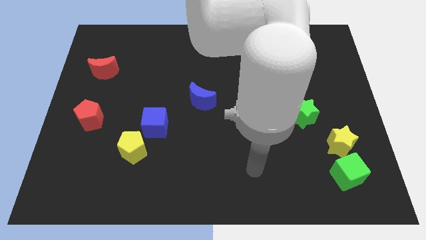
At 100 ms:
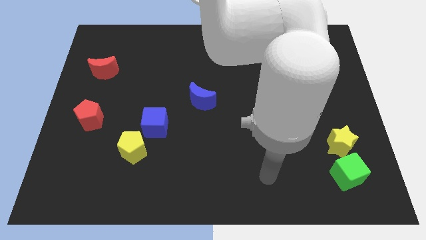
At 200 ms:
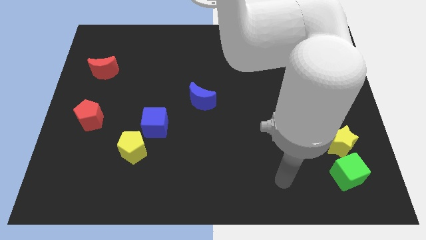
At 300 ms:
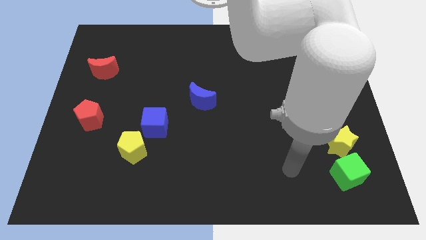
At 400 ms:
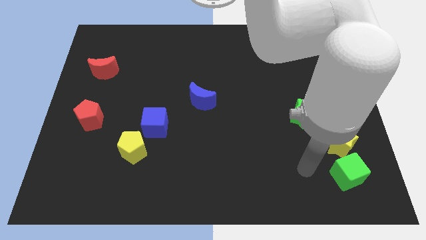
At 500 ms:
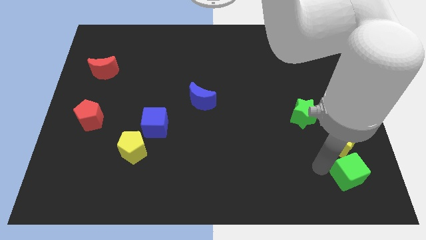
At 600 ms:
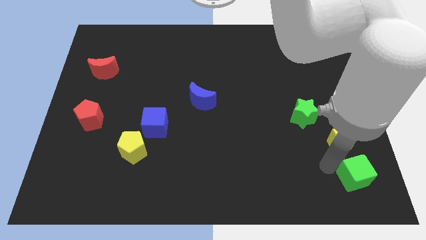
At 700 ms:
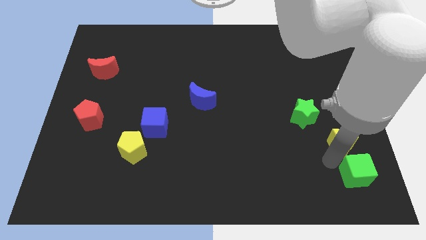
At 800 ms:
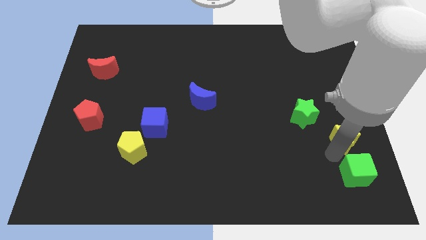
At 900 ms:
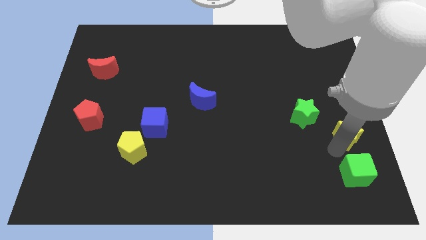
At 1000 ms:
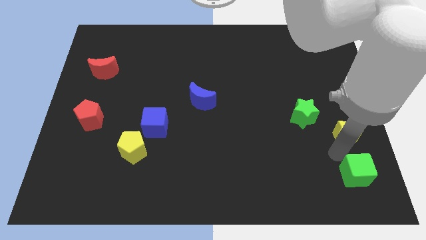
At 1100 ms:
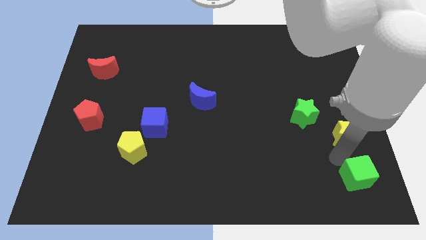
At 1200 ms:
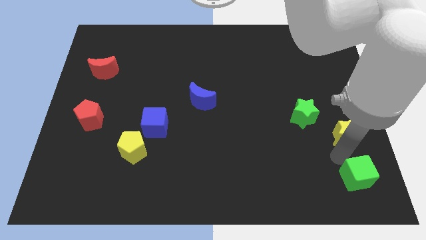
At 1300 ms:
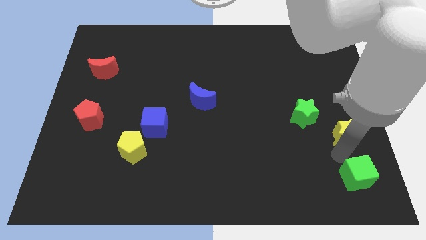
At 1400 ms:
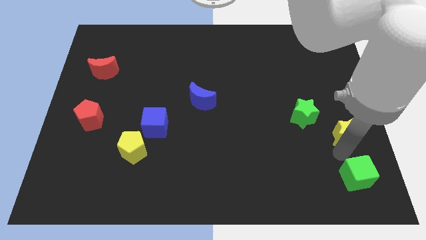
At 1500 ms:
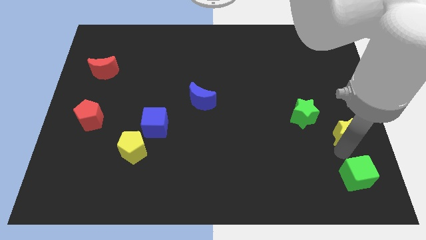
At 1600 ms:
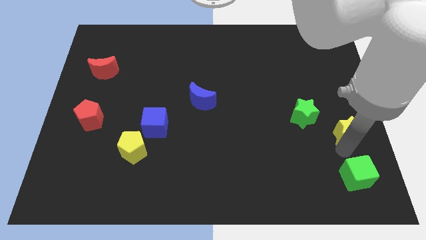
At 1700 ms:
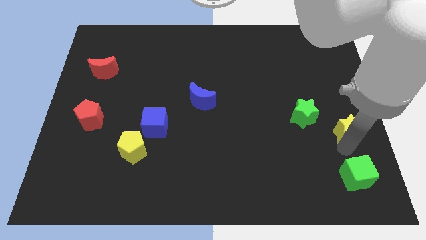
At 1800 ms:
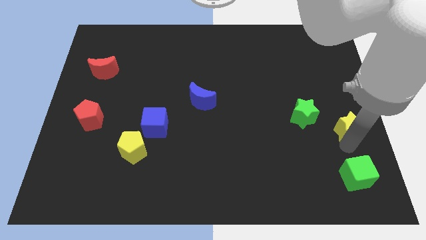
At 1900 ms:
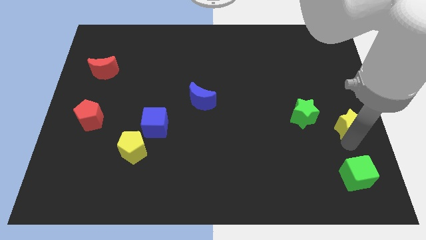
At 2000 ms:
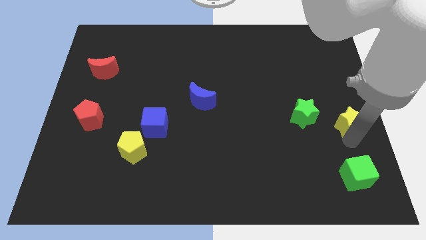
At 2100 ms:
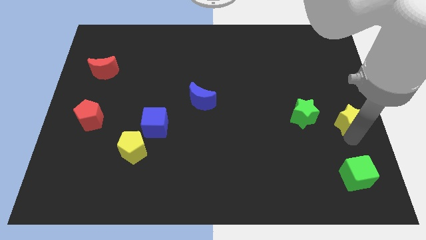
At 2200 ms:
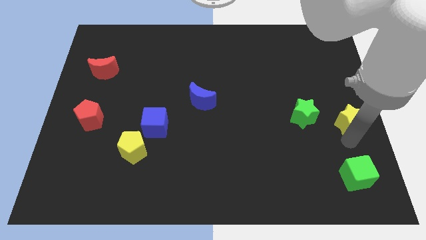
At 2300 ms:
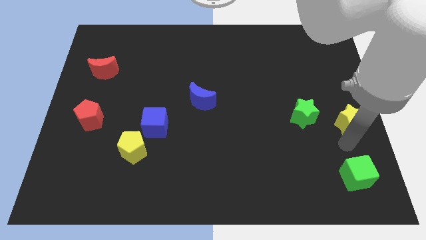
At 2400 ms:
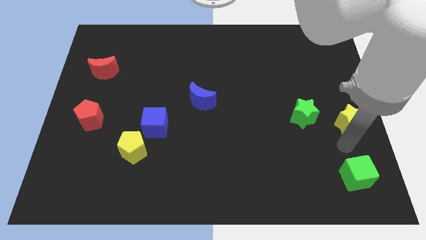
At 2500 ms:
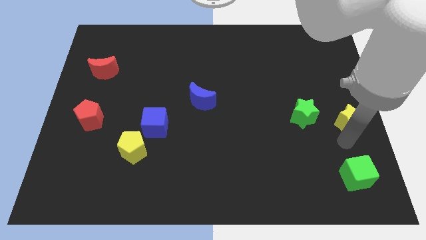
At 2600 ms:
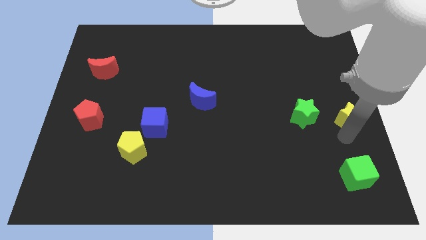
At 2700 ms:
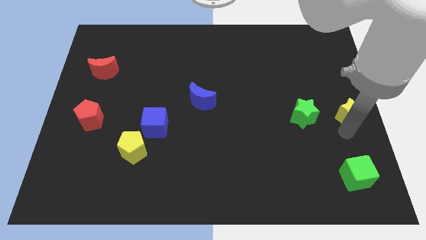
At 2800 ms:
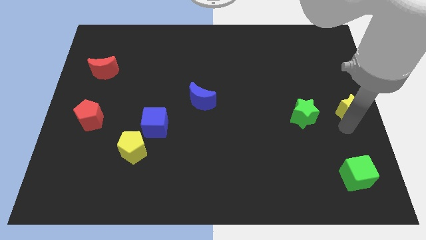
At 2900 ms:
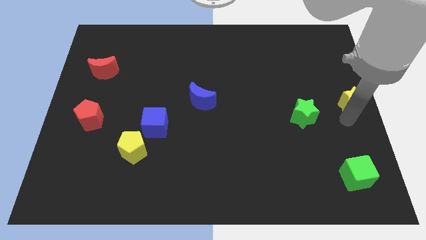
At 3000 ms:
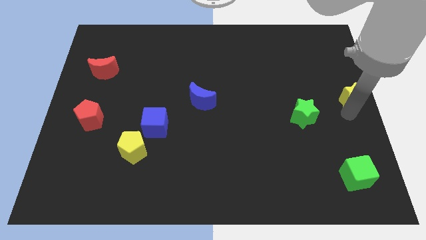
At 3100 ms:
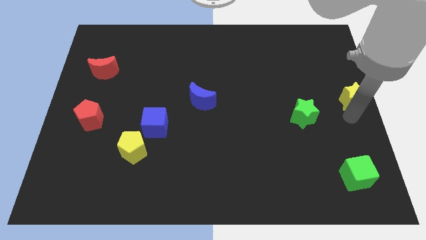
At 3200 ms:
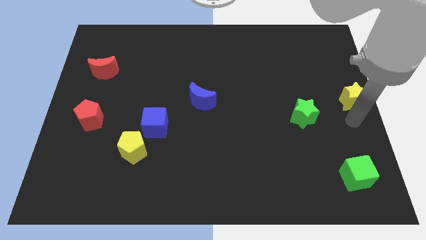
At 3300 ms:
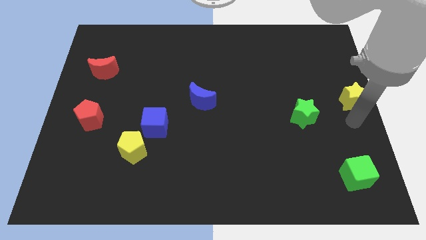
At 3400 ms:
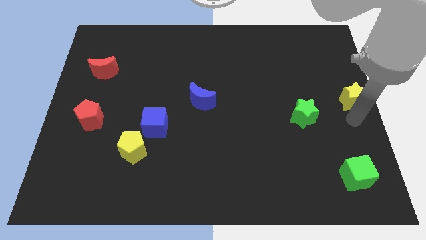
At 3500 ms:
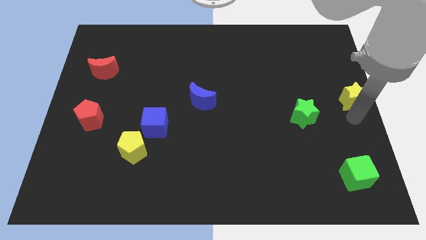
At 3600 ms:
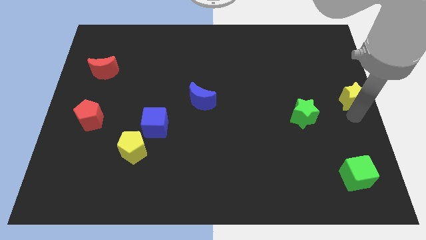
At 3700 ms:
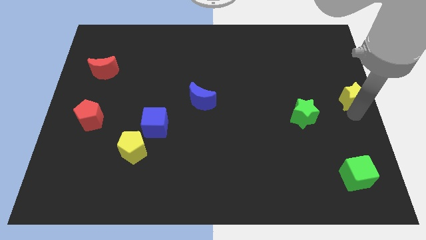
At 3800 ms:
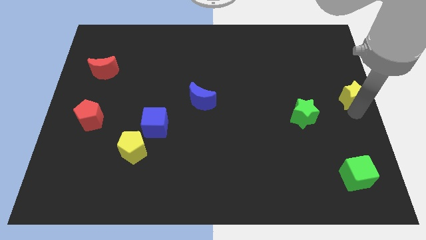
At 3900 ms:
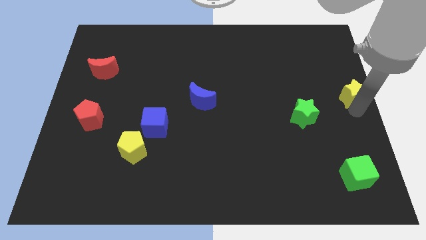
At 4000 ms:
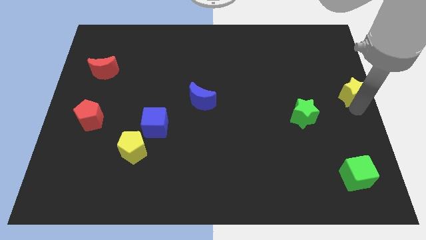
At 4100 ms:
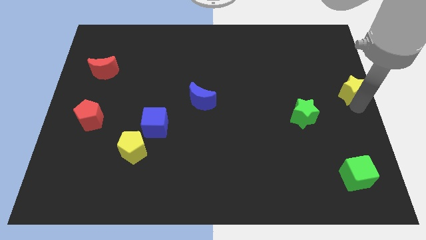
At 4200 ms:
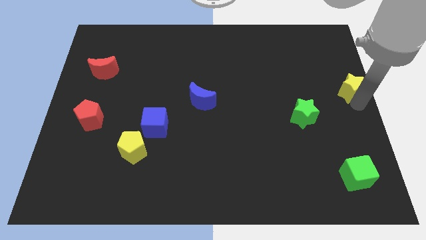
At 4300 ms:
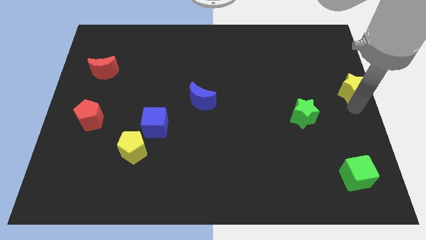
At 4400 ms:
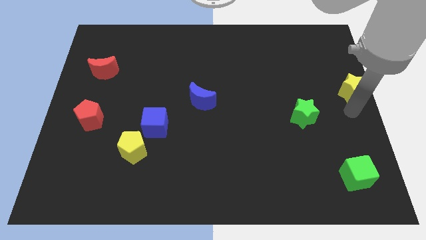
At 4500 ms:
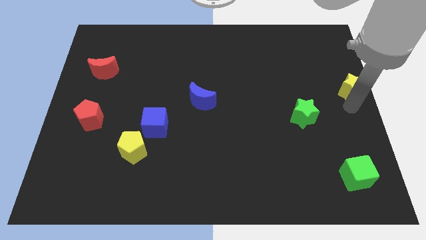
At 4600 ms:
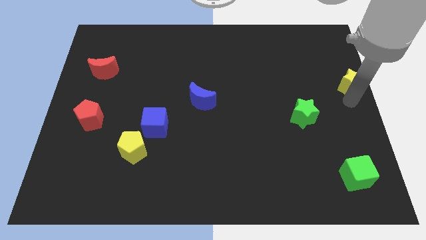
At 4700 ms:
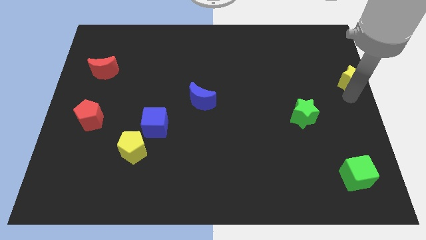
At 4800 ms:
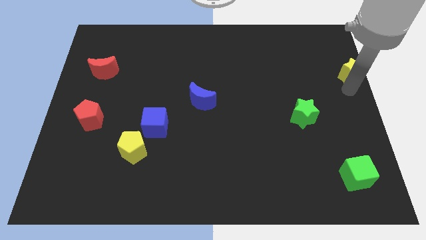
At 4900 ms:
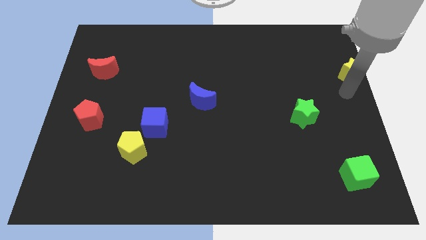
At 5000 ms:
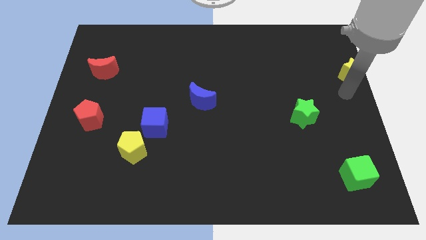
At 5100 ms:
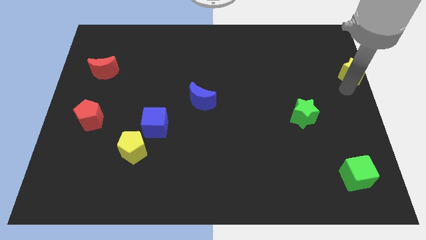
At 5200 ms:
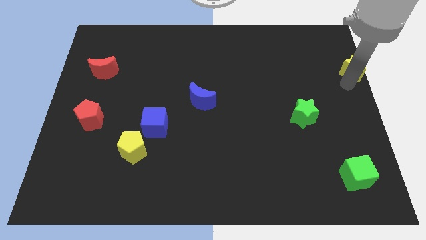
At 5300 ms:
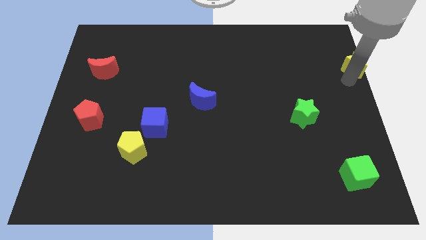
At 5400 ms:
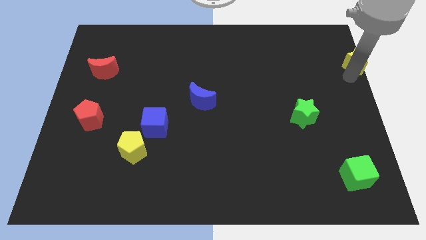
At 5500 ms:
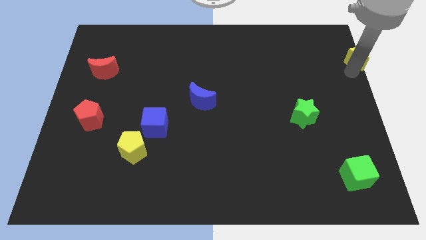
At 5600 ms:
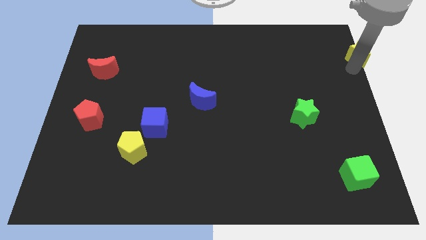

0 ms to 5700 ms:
push the yellow star to the upper right corner
